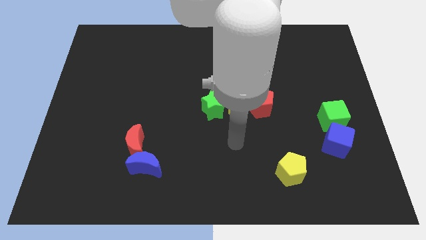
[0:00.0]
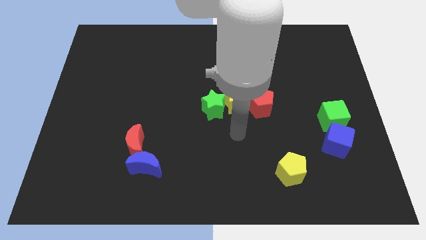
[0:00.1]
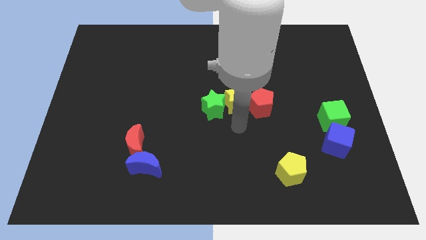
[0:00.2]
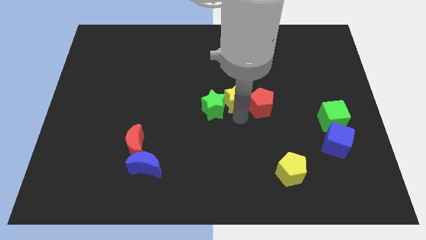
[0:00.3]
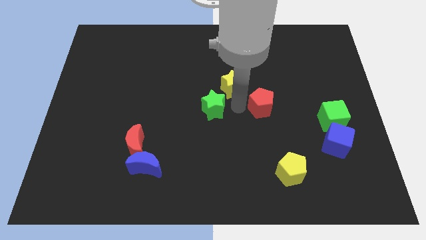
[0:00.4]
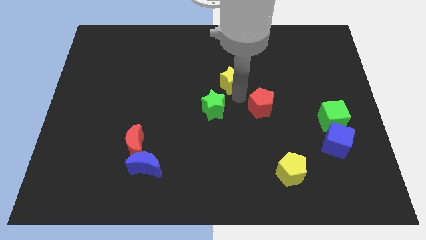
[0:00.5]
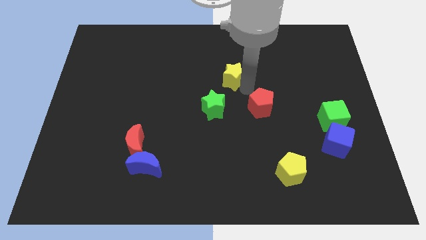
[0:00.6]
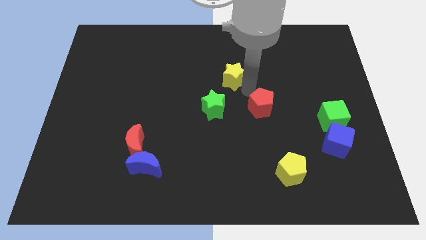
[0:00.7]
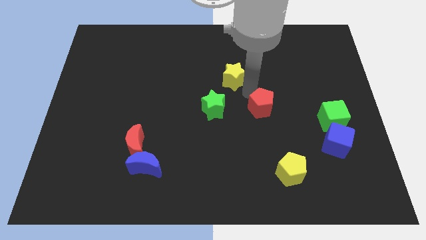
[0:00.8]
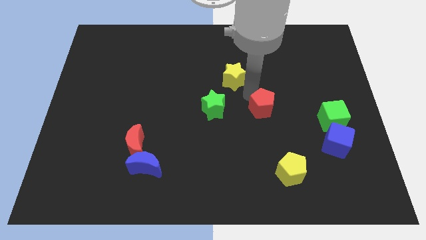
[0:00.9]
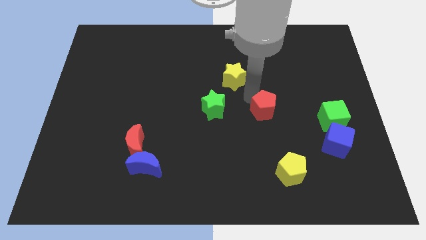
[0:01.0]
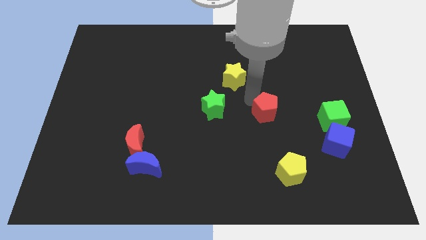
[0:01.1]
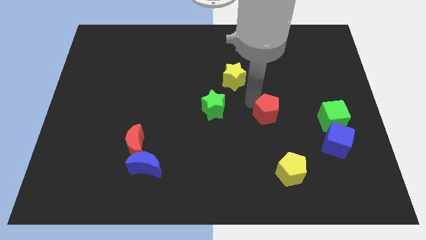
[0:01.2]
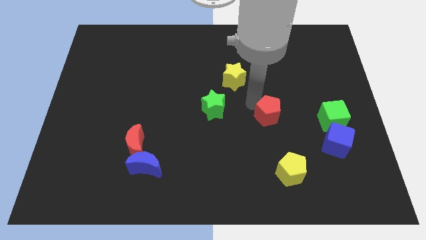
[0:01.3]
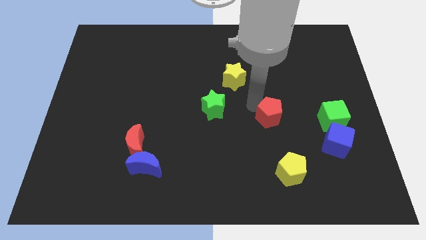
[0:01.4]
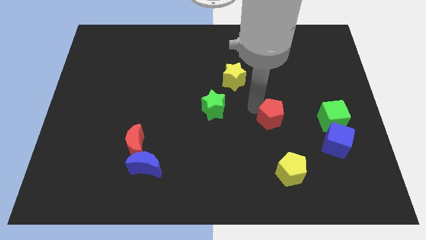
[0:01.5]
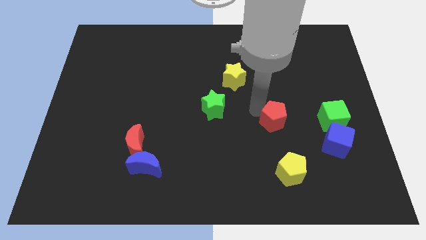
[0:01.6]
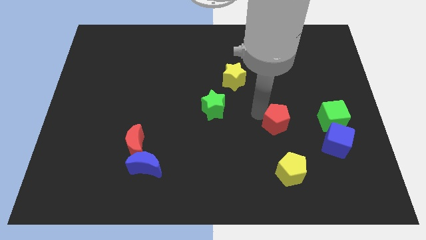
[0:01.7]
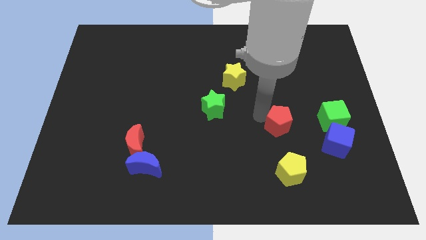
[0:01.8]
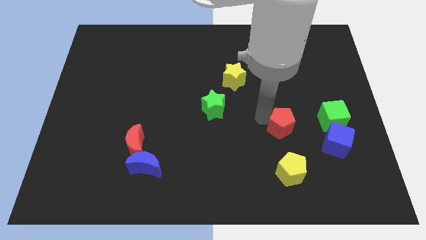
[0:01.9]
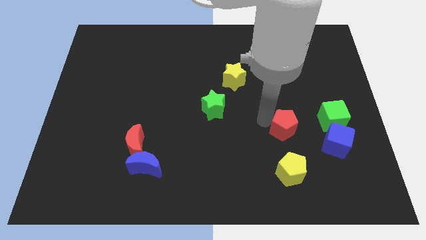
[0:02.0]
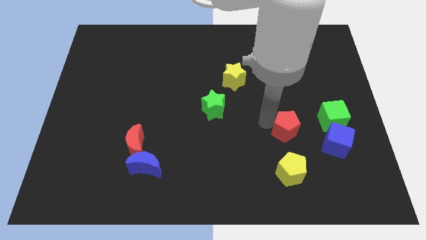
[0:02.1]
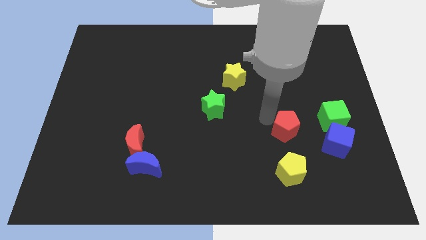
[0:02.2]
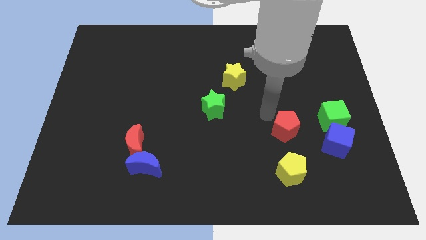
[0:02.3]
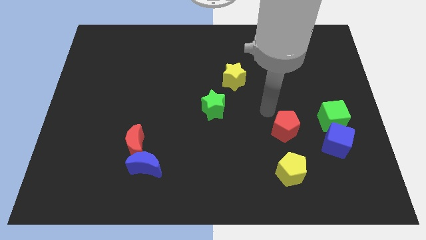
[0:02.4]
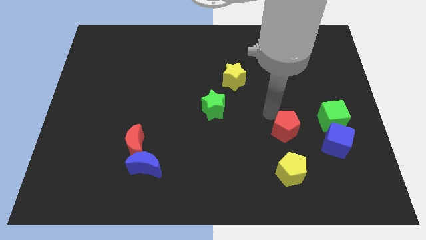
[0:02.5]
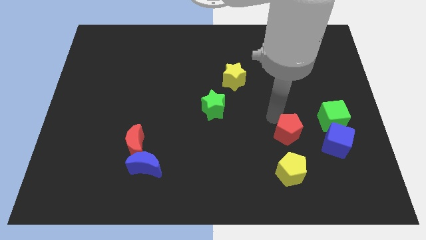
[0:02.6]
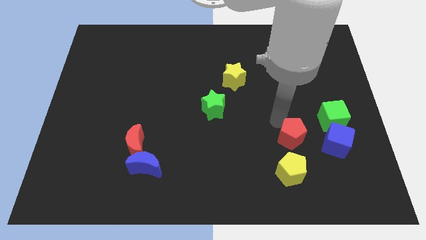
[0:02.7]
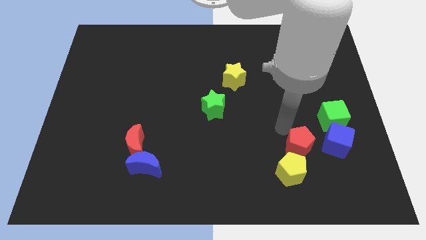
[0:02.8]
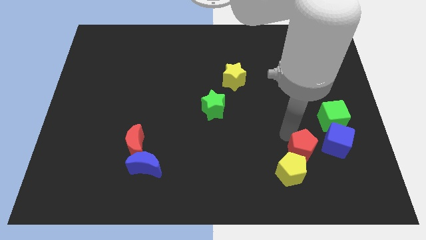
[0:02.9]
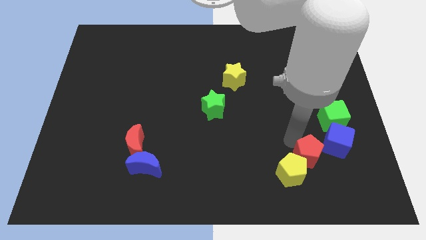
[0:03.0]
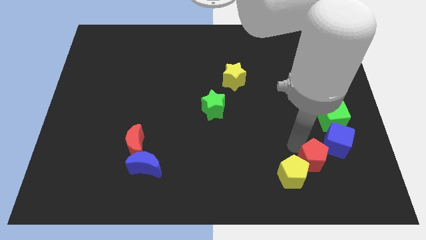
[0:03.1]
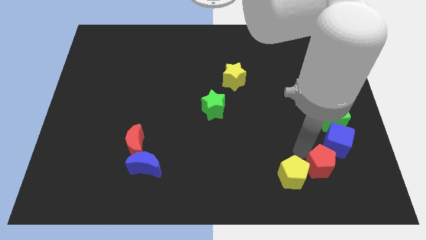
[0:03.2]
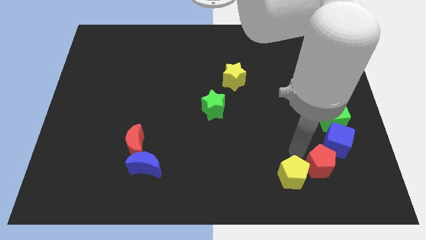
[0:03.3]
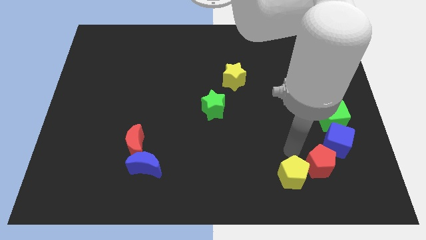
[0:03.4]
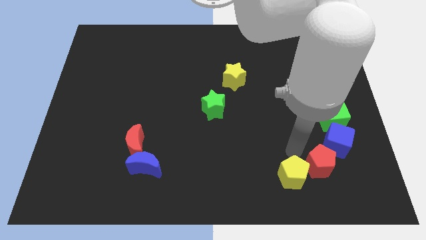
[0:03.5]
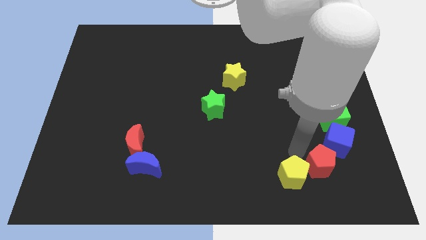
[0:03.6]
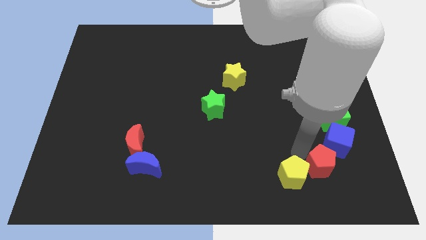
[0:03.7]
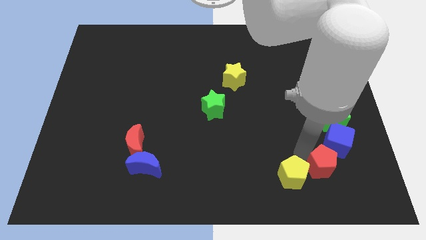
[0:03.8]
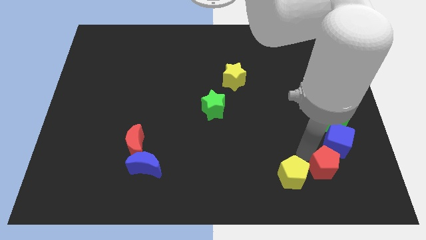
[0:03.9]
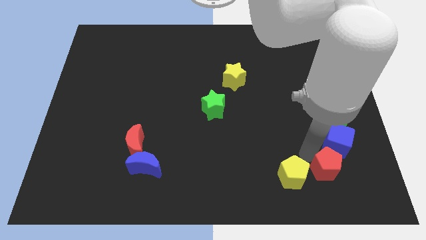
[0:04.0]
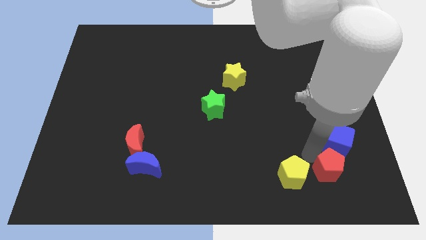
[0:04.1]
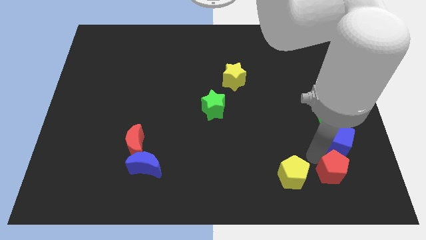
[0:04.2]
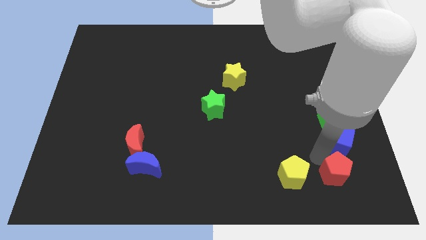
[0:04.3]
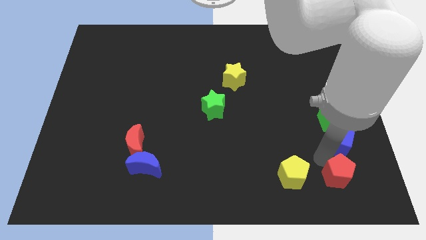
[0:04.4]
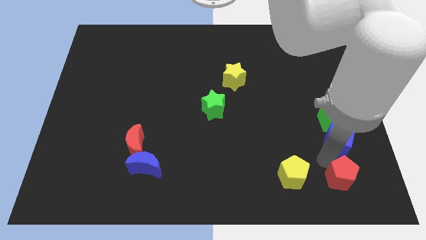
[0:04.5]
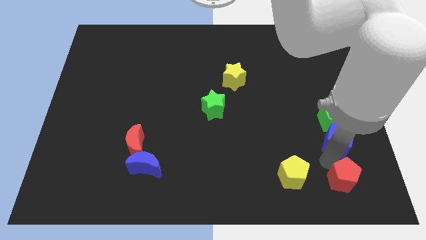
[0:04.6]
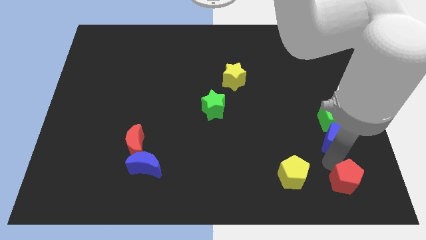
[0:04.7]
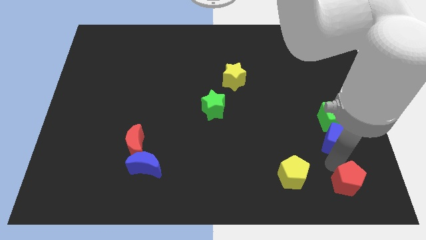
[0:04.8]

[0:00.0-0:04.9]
push the red pentagon to the lower right corner

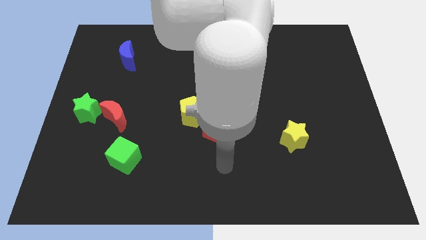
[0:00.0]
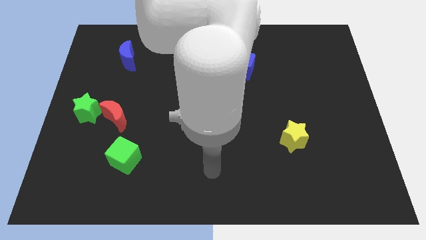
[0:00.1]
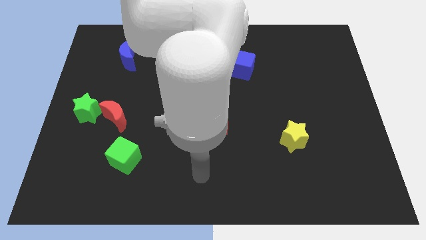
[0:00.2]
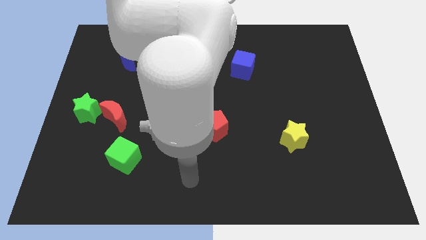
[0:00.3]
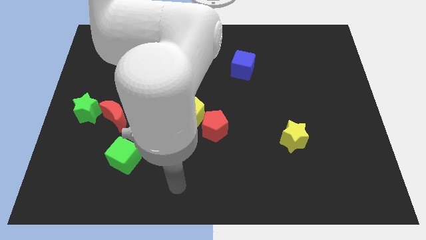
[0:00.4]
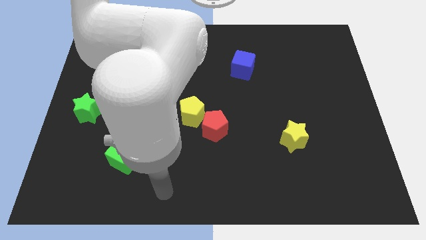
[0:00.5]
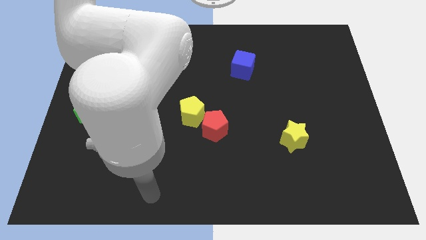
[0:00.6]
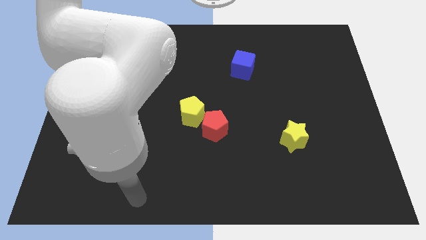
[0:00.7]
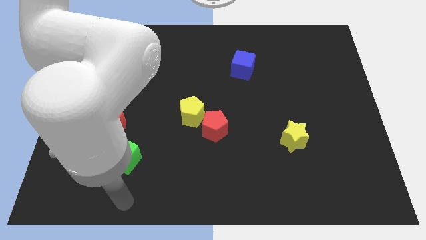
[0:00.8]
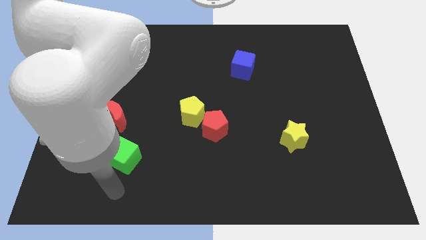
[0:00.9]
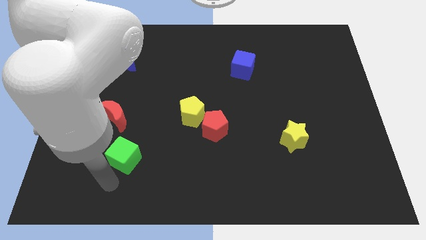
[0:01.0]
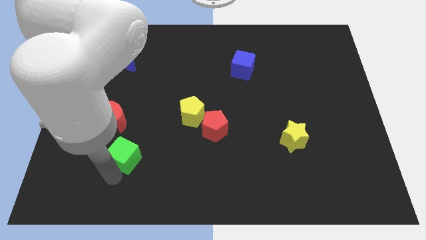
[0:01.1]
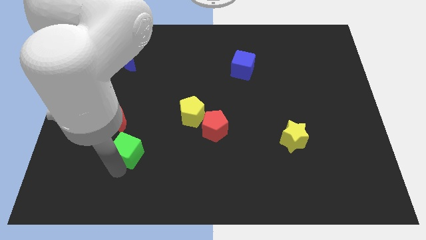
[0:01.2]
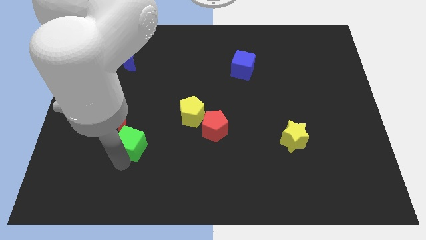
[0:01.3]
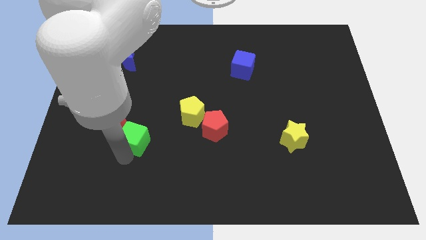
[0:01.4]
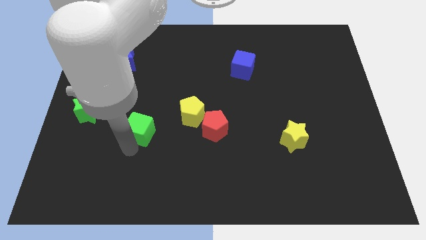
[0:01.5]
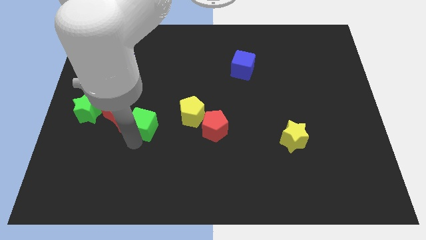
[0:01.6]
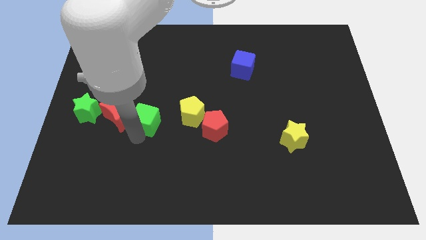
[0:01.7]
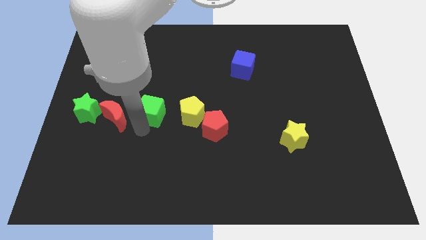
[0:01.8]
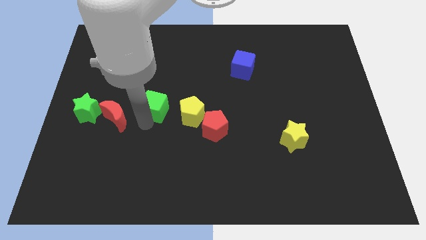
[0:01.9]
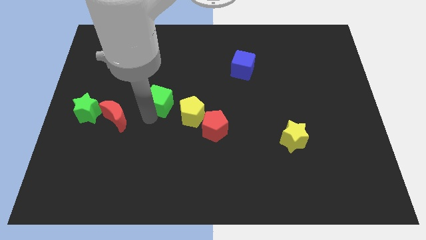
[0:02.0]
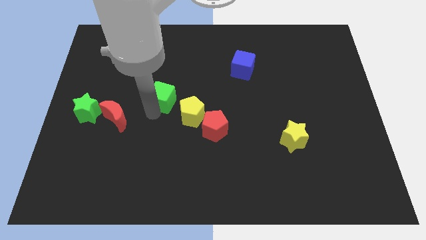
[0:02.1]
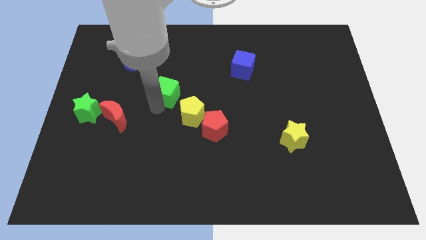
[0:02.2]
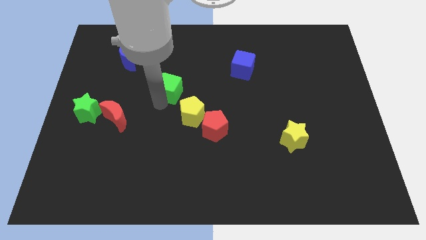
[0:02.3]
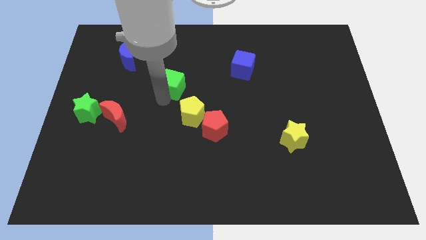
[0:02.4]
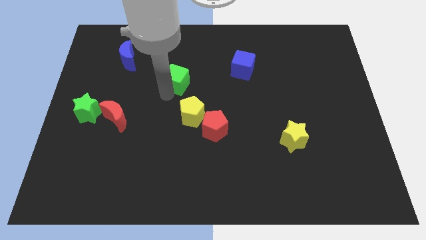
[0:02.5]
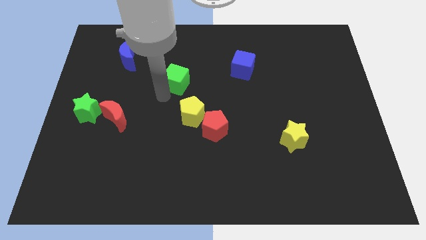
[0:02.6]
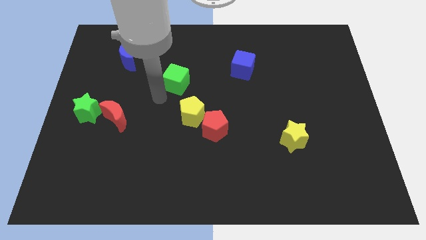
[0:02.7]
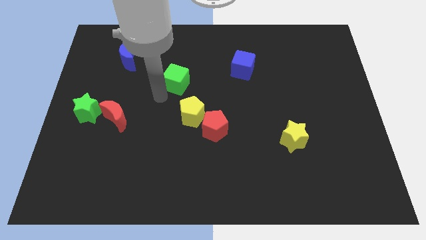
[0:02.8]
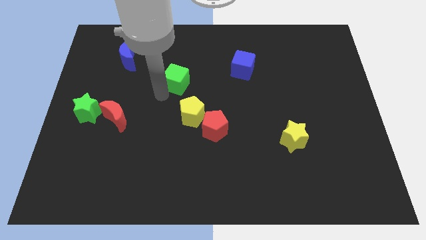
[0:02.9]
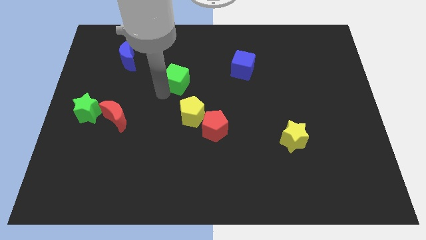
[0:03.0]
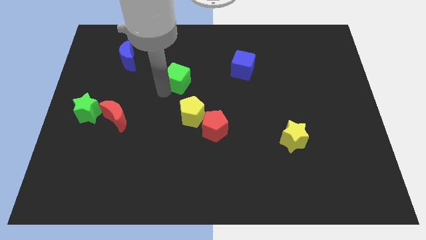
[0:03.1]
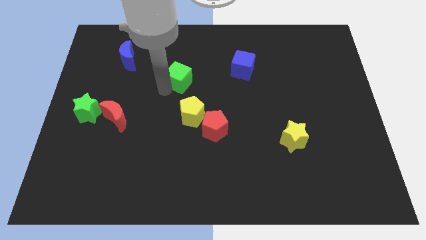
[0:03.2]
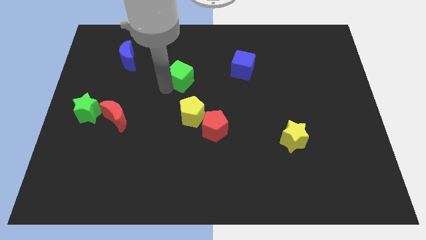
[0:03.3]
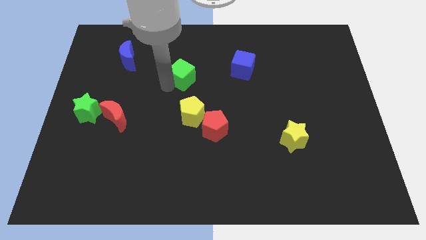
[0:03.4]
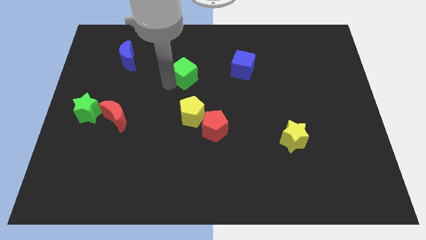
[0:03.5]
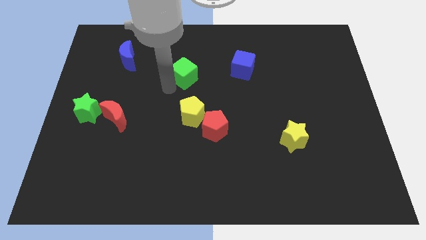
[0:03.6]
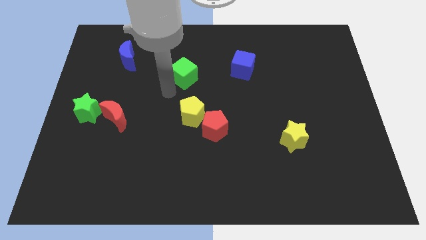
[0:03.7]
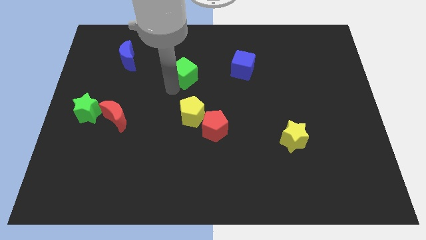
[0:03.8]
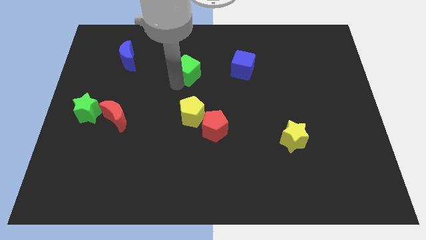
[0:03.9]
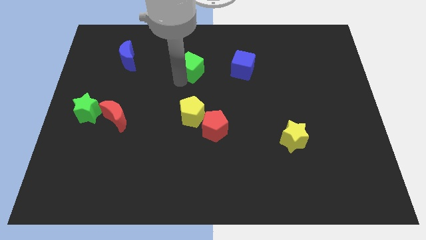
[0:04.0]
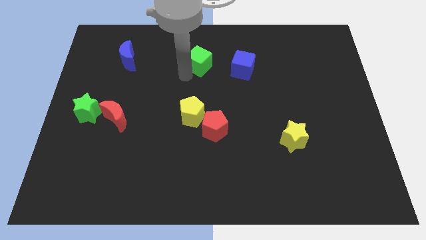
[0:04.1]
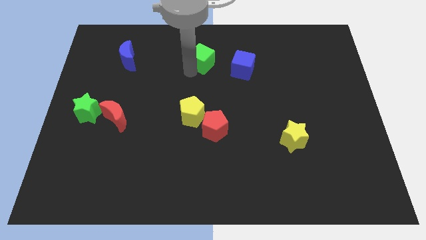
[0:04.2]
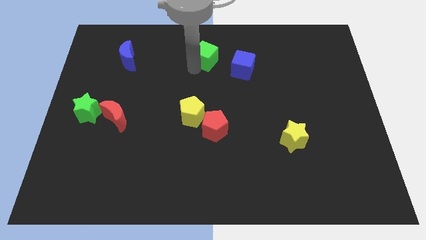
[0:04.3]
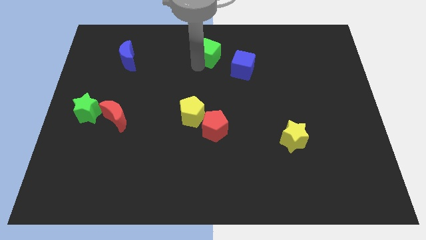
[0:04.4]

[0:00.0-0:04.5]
push the green cube to the top side
